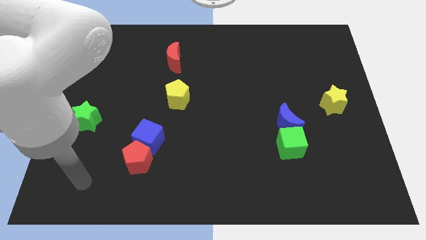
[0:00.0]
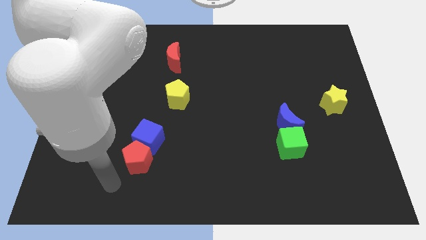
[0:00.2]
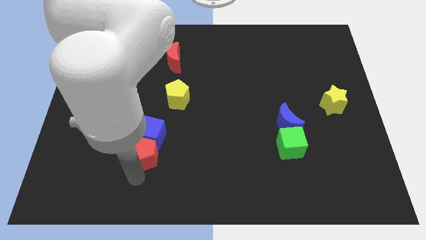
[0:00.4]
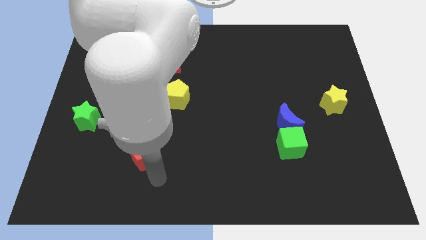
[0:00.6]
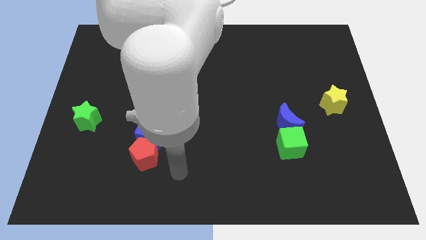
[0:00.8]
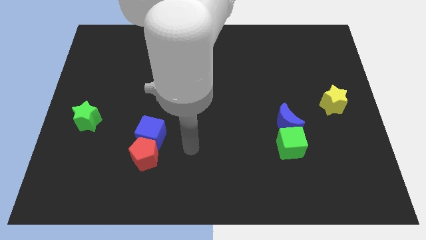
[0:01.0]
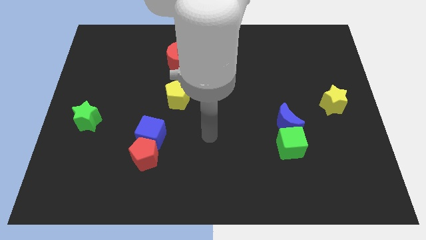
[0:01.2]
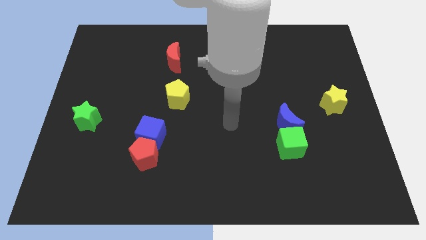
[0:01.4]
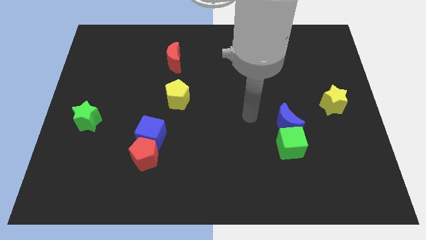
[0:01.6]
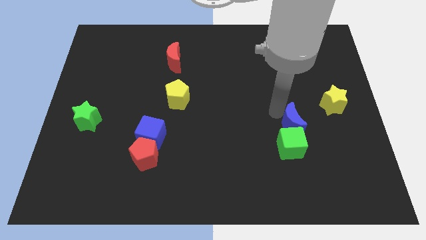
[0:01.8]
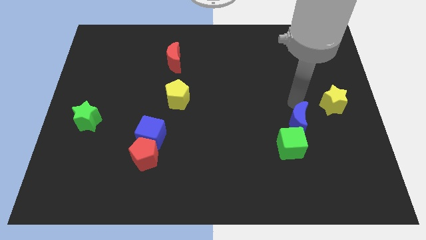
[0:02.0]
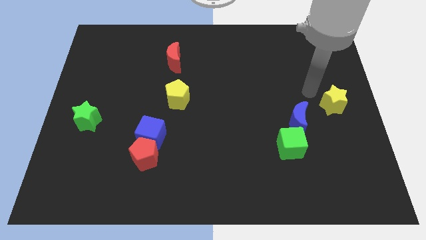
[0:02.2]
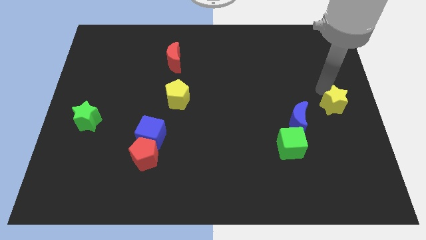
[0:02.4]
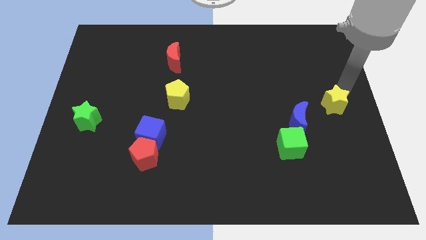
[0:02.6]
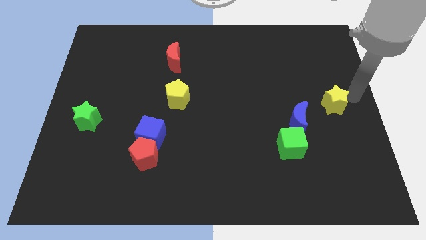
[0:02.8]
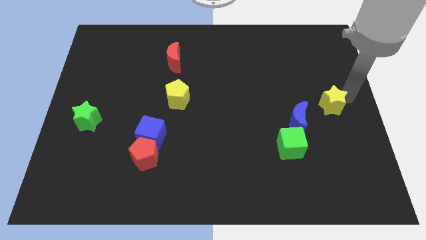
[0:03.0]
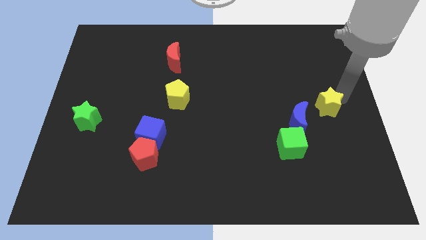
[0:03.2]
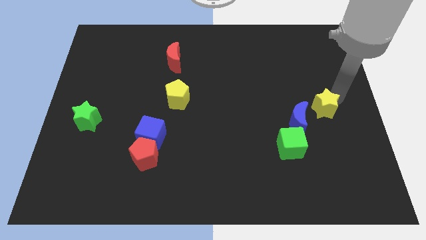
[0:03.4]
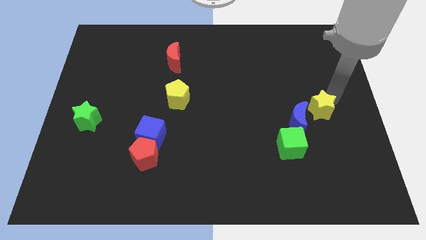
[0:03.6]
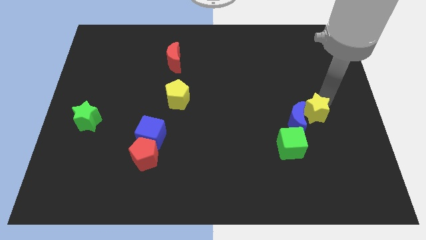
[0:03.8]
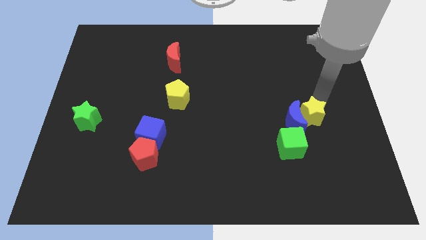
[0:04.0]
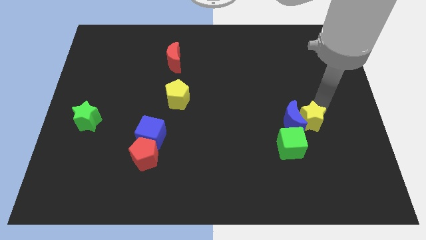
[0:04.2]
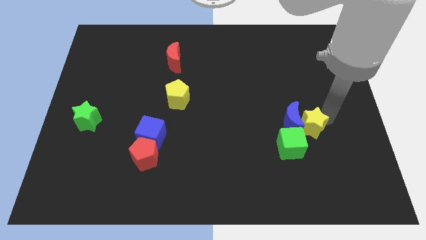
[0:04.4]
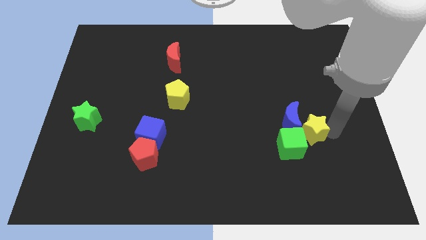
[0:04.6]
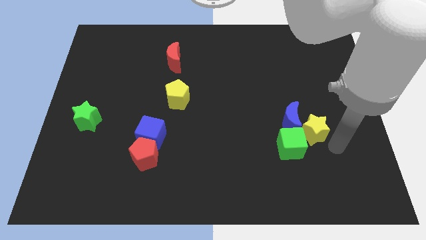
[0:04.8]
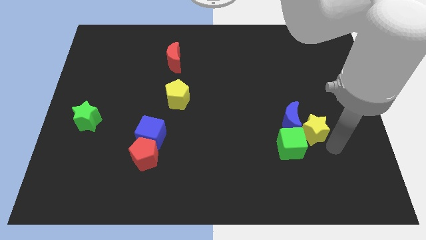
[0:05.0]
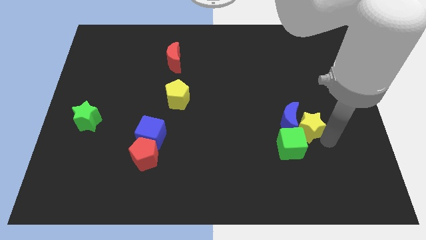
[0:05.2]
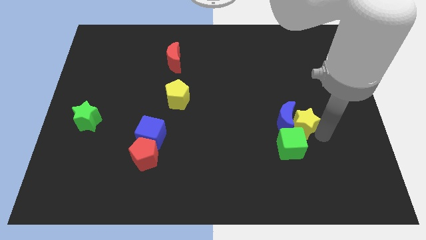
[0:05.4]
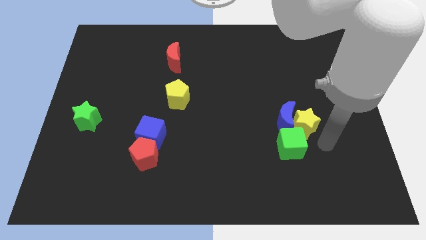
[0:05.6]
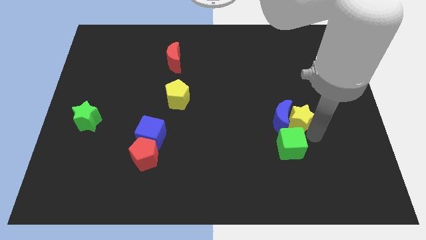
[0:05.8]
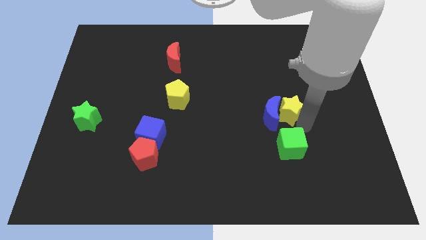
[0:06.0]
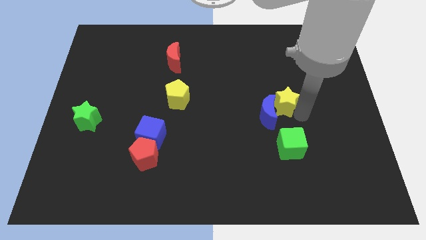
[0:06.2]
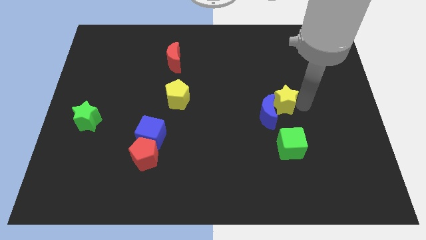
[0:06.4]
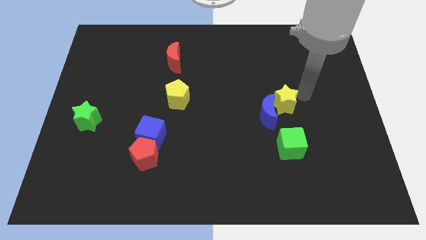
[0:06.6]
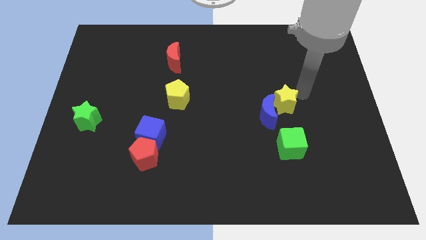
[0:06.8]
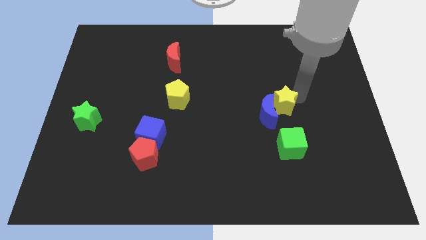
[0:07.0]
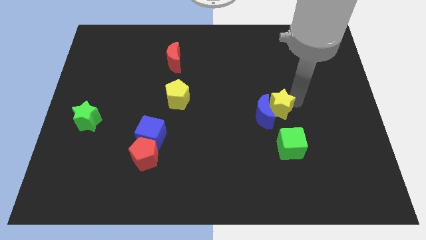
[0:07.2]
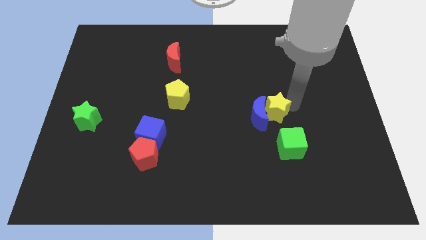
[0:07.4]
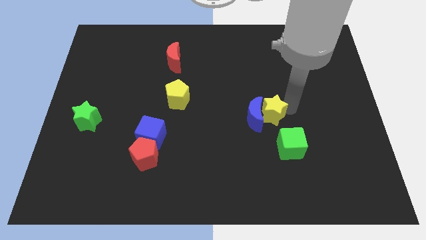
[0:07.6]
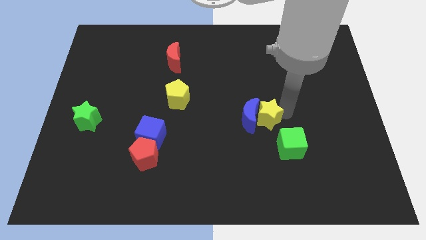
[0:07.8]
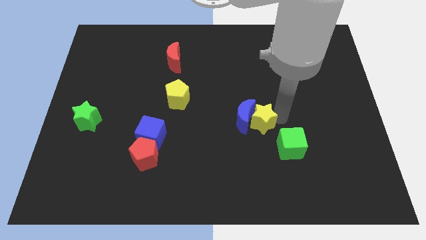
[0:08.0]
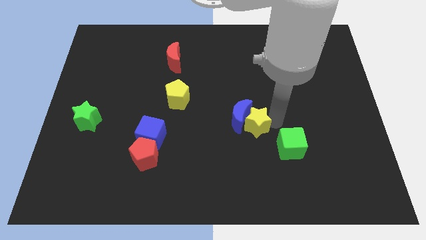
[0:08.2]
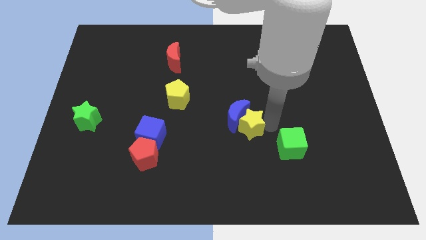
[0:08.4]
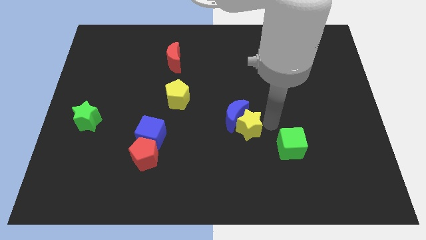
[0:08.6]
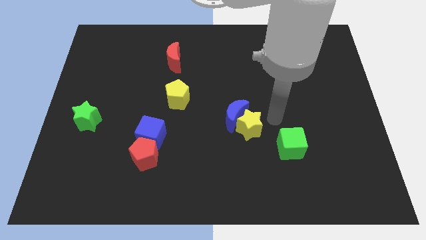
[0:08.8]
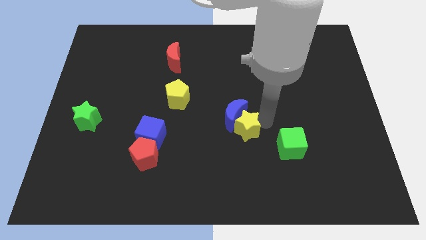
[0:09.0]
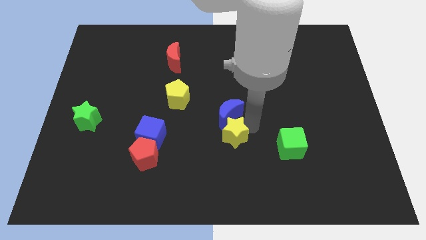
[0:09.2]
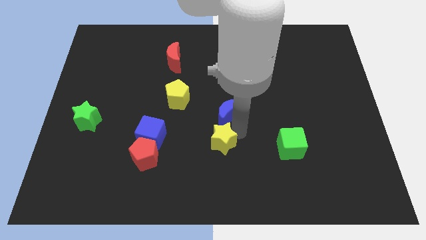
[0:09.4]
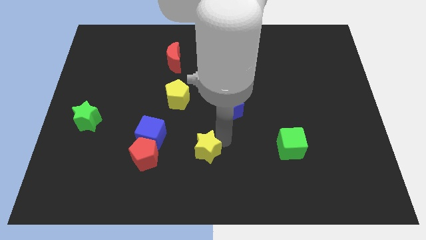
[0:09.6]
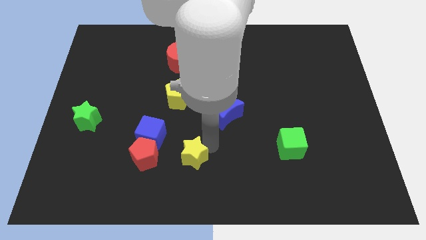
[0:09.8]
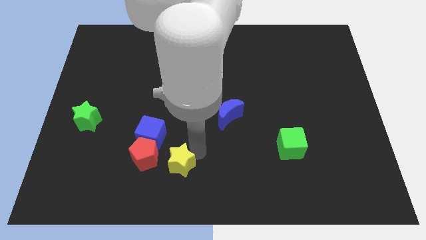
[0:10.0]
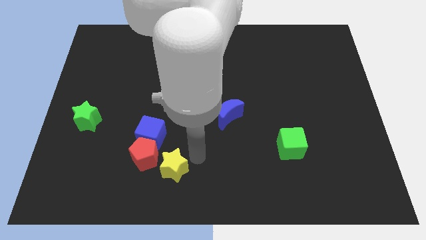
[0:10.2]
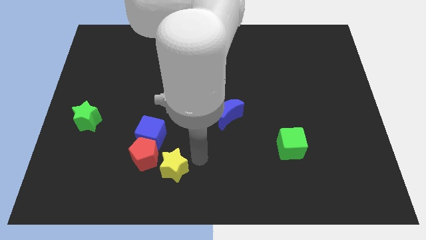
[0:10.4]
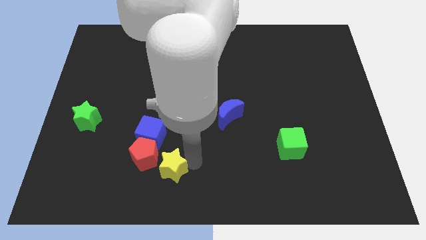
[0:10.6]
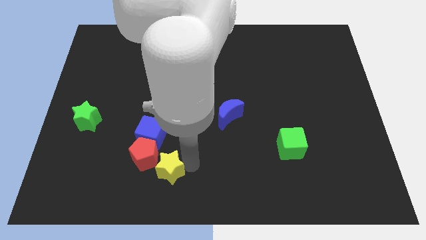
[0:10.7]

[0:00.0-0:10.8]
put the yellow star to the bottom of the blue cube

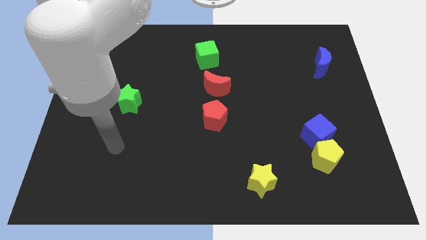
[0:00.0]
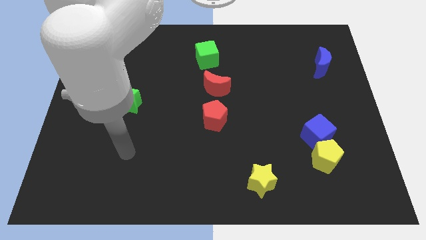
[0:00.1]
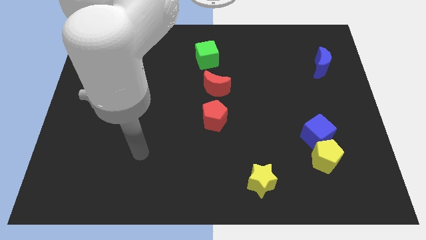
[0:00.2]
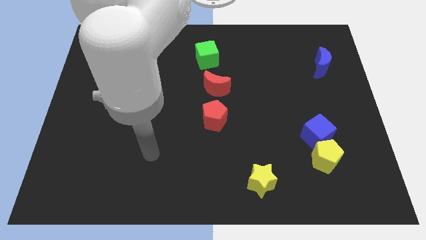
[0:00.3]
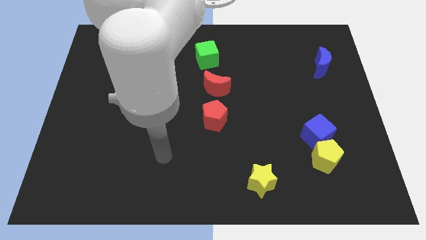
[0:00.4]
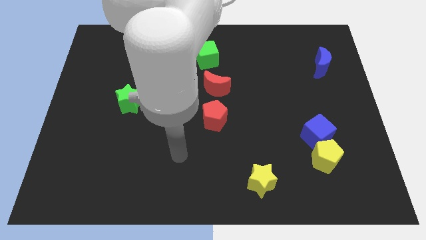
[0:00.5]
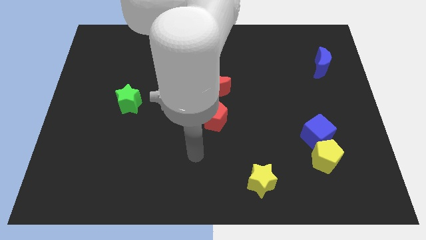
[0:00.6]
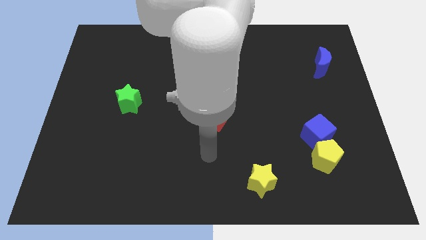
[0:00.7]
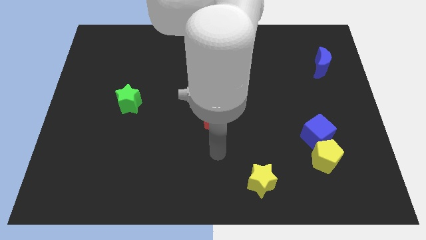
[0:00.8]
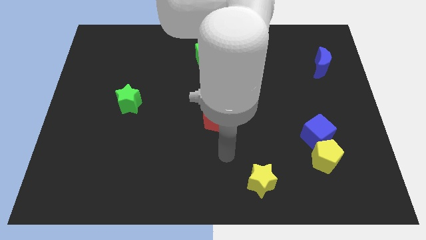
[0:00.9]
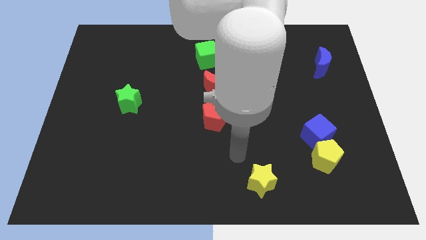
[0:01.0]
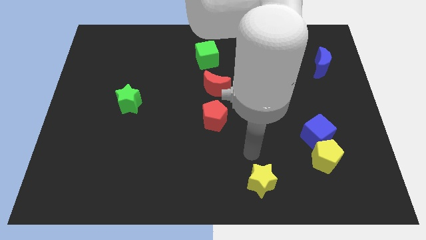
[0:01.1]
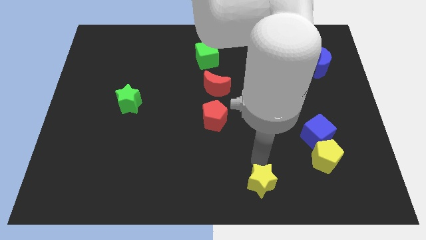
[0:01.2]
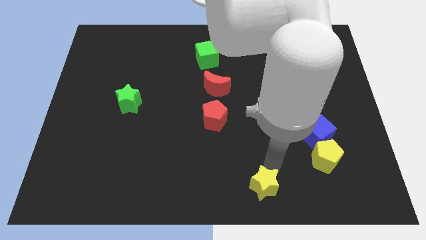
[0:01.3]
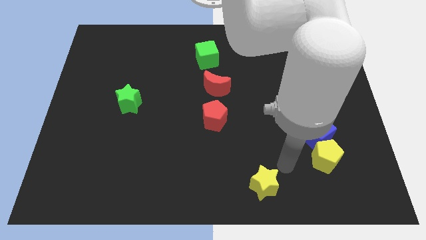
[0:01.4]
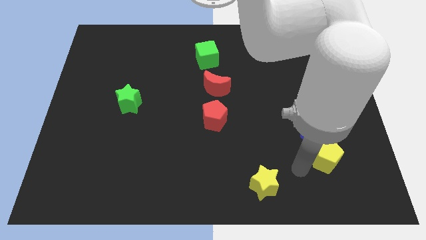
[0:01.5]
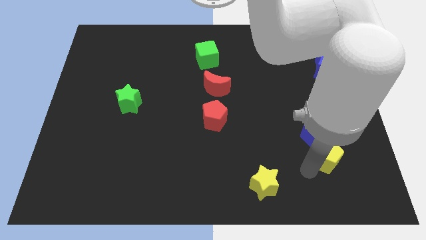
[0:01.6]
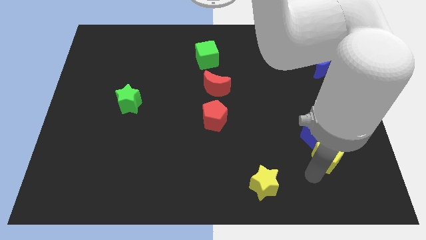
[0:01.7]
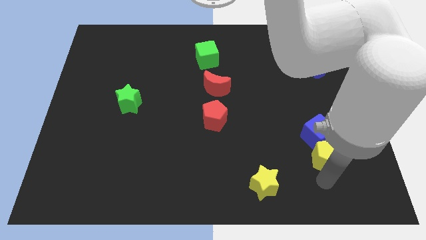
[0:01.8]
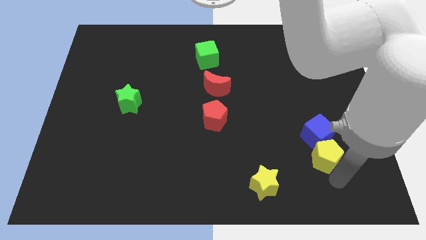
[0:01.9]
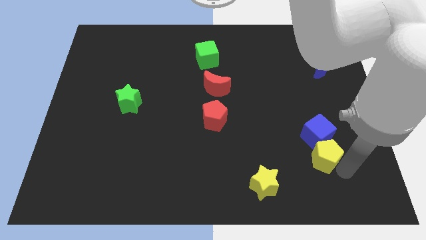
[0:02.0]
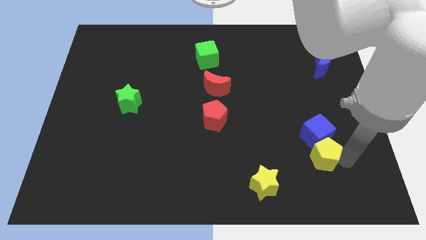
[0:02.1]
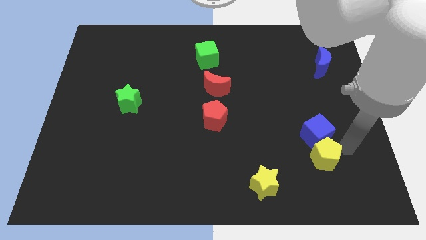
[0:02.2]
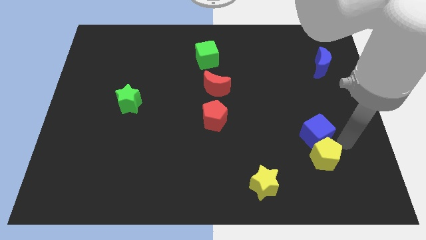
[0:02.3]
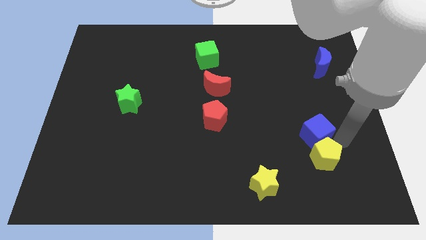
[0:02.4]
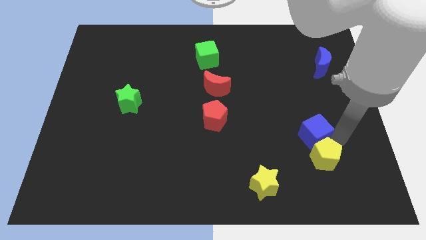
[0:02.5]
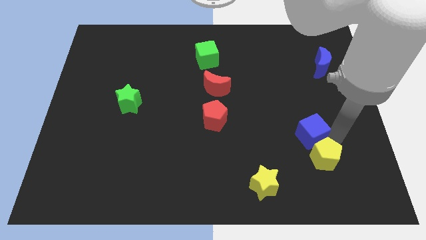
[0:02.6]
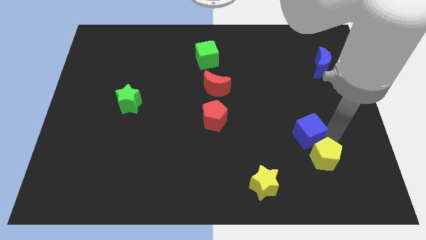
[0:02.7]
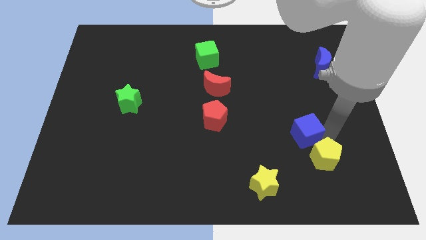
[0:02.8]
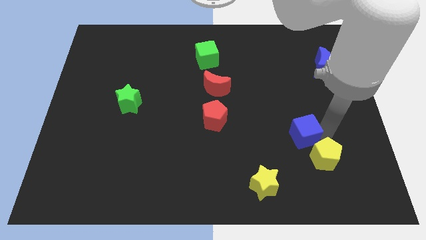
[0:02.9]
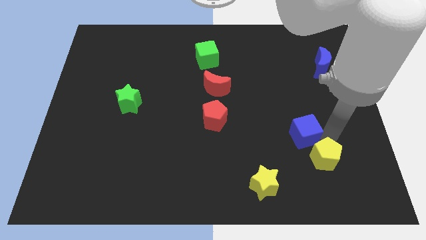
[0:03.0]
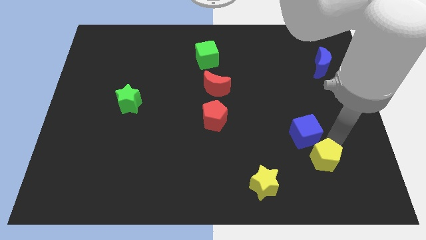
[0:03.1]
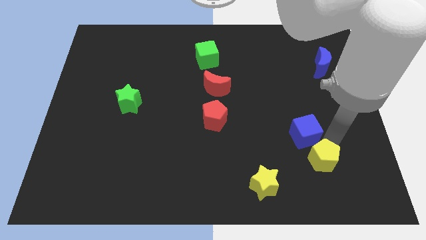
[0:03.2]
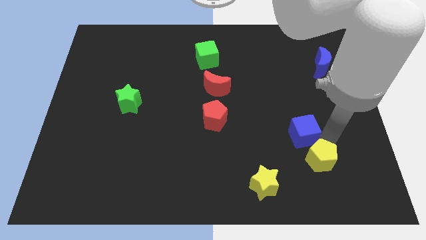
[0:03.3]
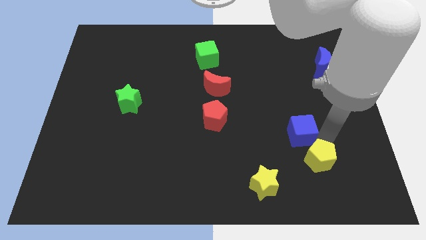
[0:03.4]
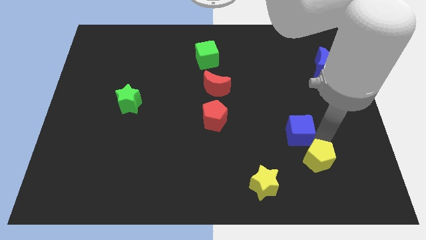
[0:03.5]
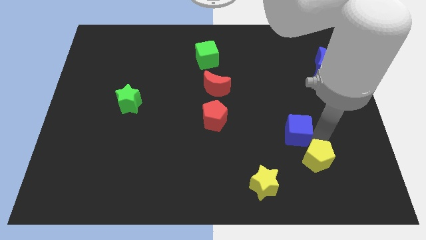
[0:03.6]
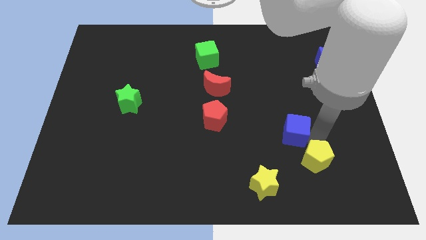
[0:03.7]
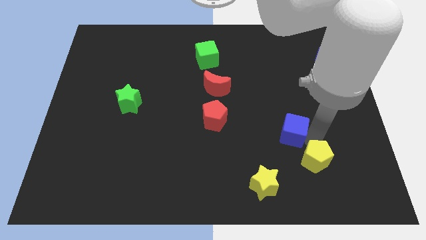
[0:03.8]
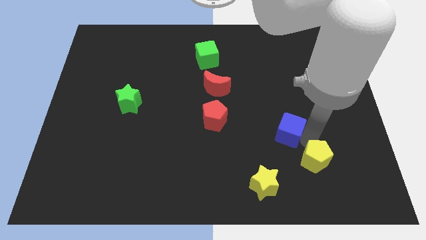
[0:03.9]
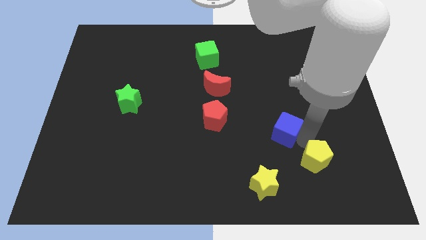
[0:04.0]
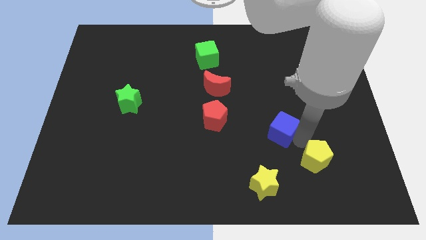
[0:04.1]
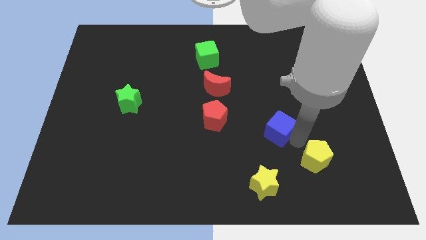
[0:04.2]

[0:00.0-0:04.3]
push the blue cube just right of the red pentagon
